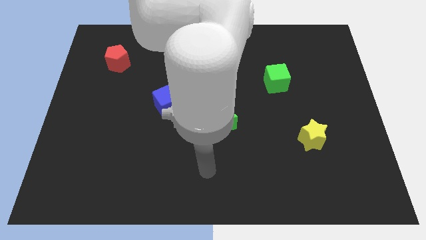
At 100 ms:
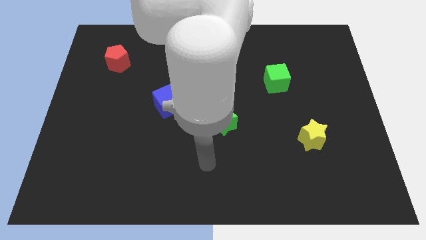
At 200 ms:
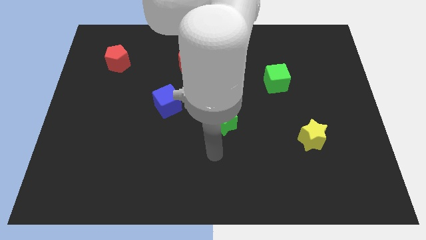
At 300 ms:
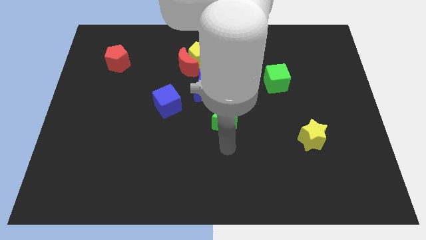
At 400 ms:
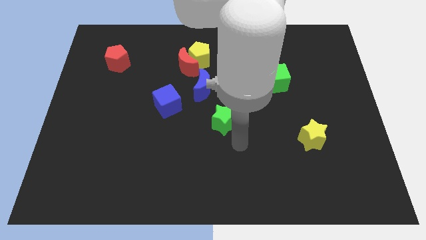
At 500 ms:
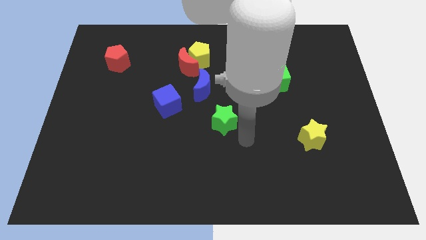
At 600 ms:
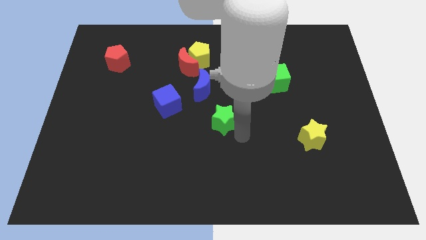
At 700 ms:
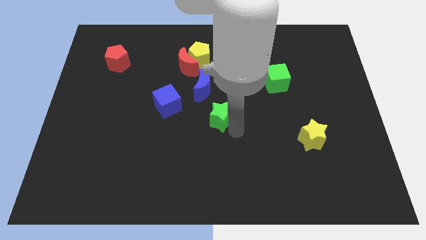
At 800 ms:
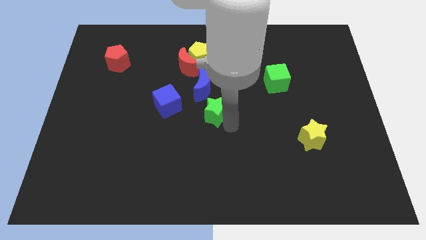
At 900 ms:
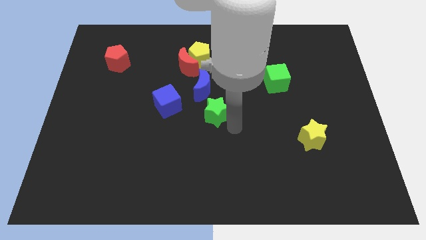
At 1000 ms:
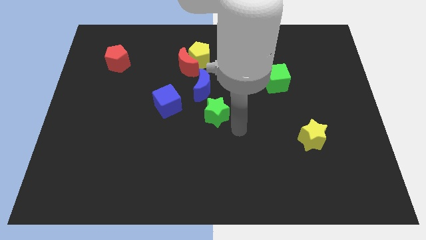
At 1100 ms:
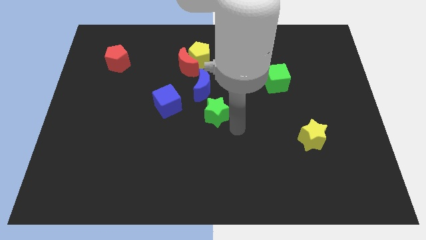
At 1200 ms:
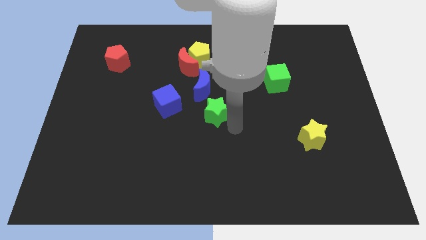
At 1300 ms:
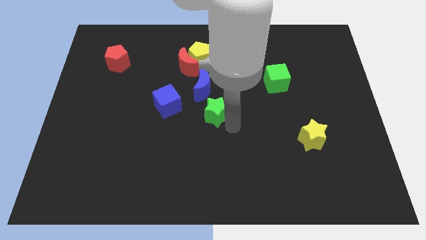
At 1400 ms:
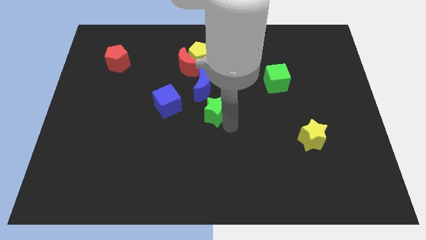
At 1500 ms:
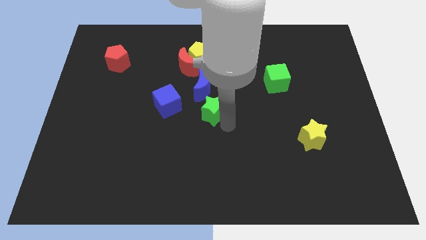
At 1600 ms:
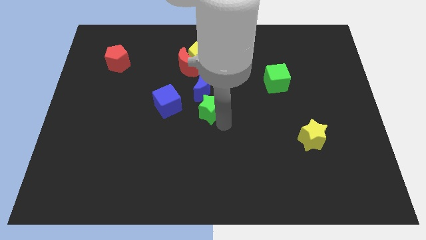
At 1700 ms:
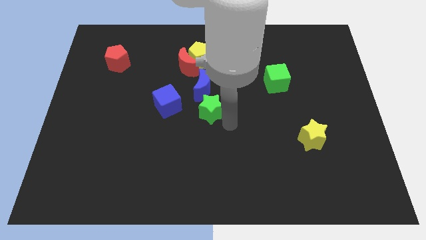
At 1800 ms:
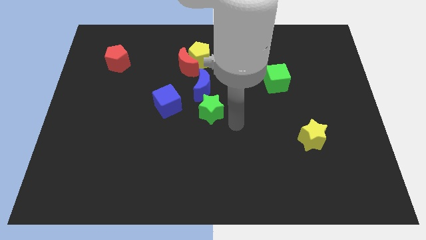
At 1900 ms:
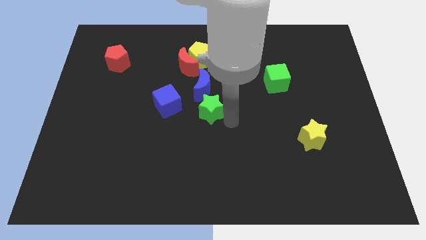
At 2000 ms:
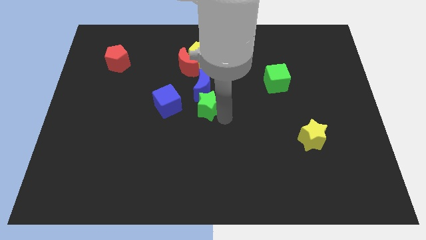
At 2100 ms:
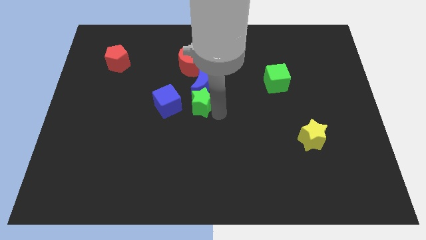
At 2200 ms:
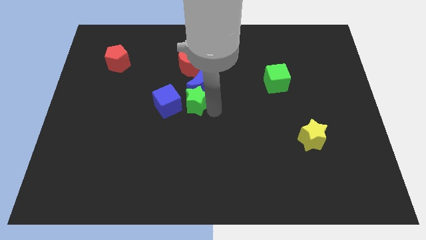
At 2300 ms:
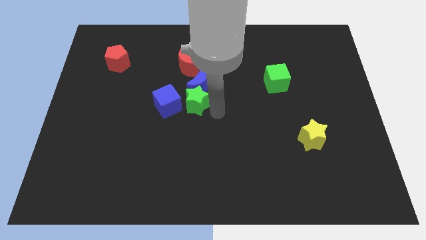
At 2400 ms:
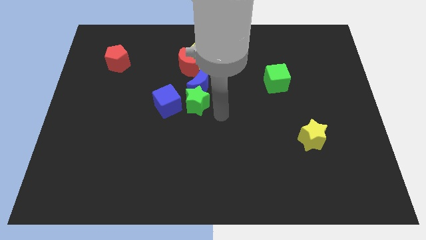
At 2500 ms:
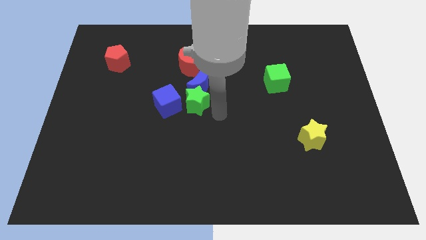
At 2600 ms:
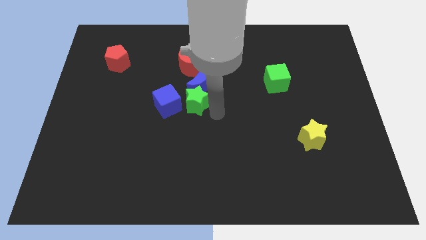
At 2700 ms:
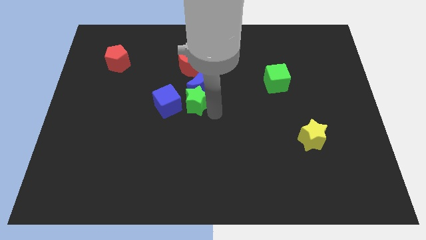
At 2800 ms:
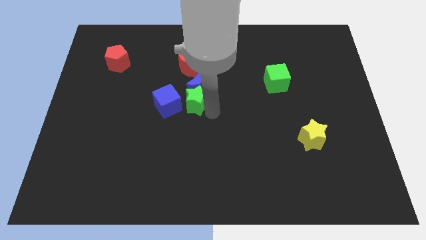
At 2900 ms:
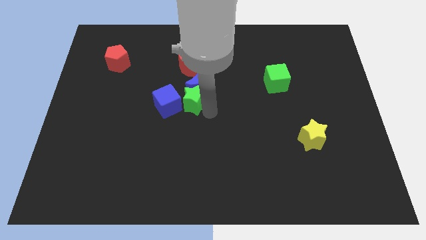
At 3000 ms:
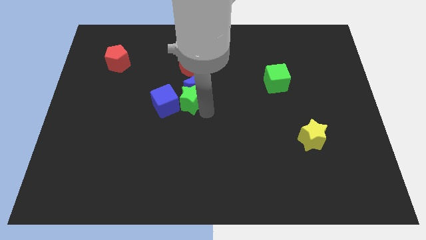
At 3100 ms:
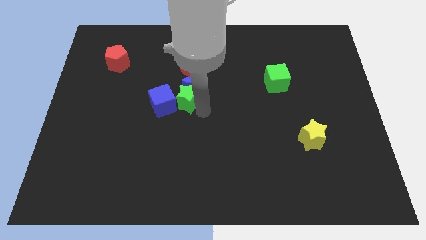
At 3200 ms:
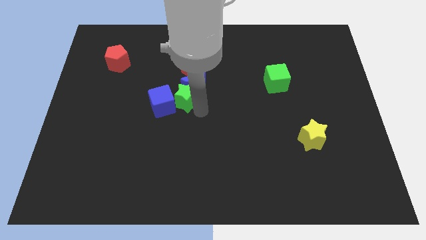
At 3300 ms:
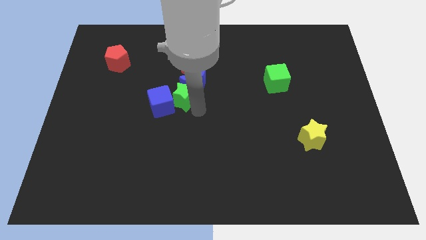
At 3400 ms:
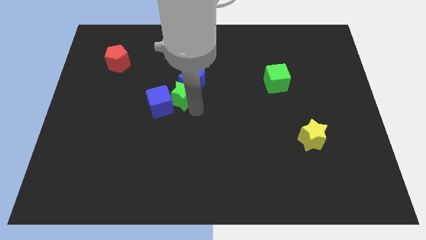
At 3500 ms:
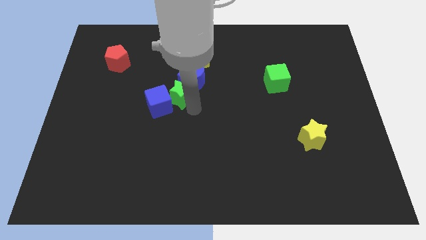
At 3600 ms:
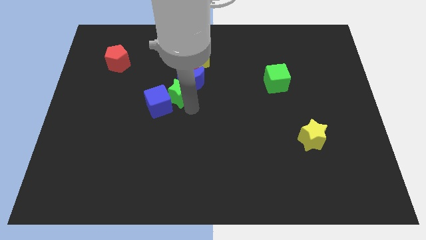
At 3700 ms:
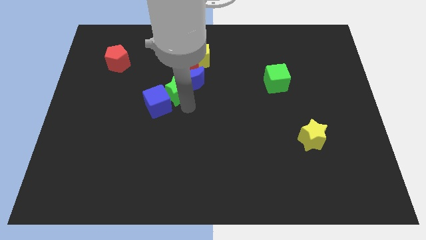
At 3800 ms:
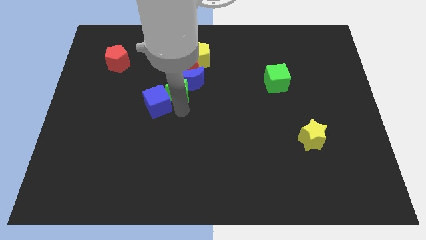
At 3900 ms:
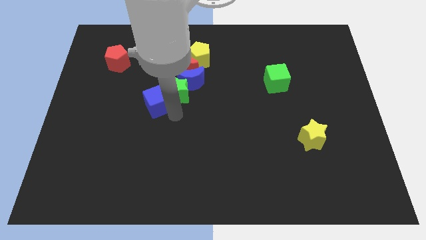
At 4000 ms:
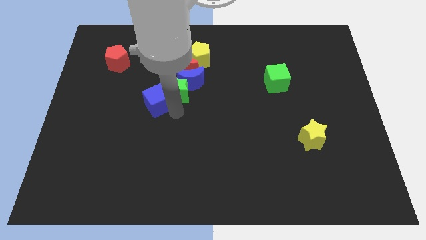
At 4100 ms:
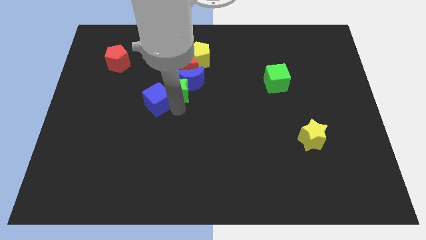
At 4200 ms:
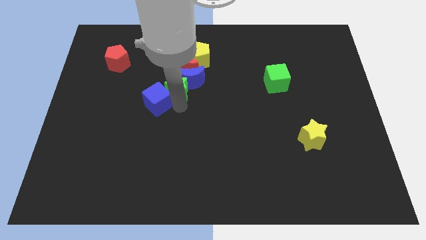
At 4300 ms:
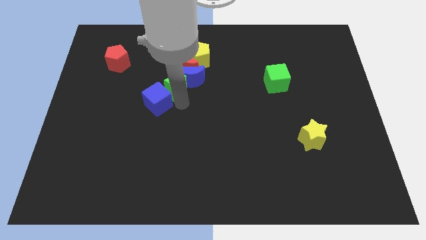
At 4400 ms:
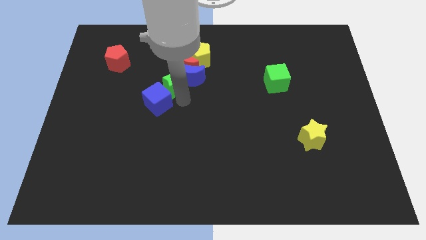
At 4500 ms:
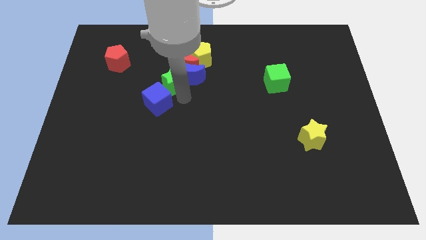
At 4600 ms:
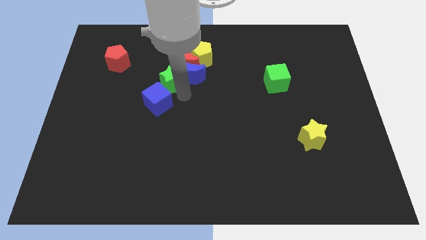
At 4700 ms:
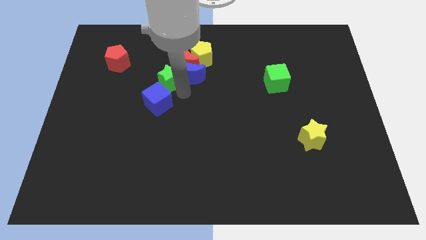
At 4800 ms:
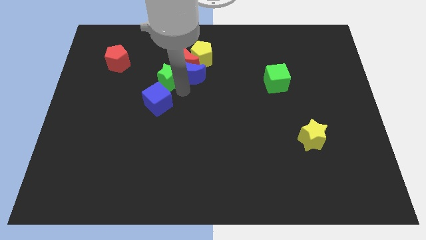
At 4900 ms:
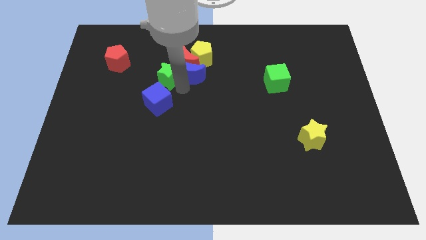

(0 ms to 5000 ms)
put the green star towards the red moon

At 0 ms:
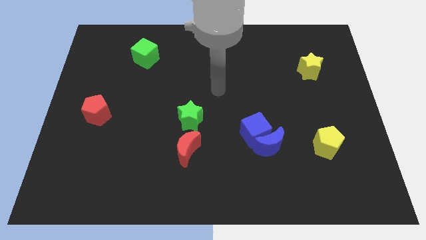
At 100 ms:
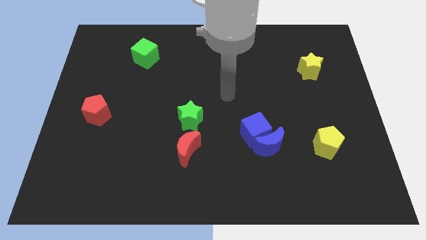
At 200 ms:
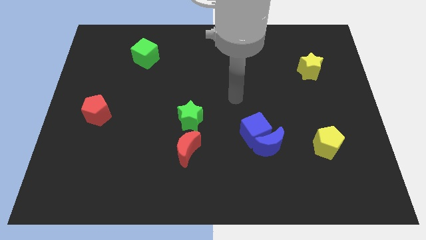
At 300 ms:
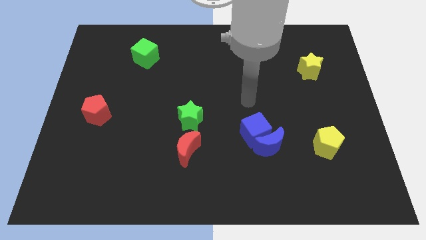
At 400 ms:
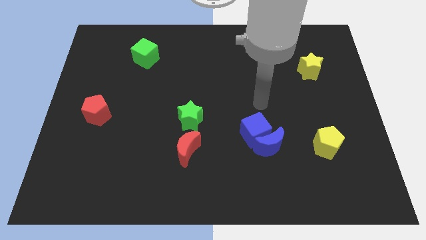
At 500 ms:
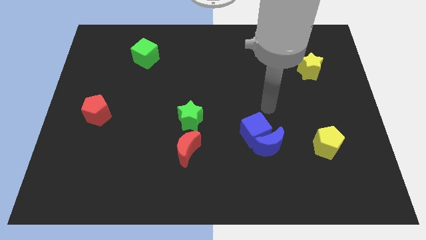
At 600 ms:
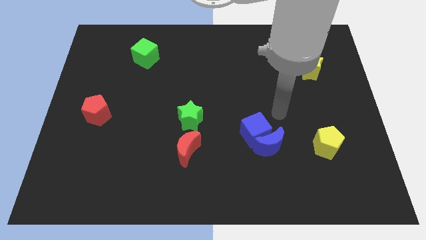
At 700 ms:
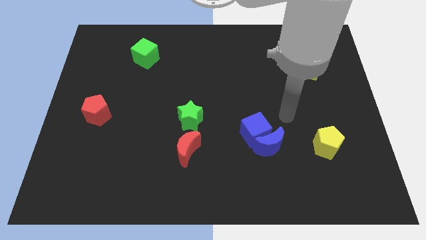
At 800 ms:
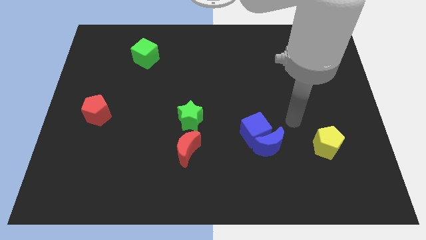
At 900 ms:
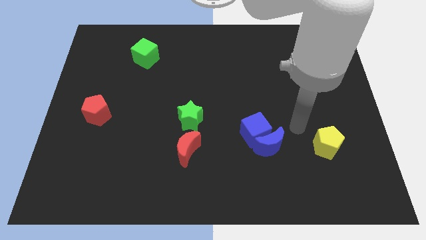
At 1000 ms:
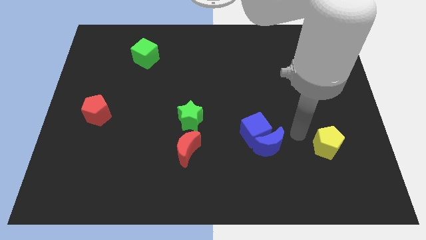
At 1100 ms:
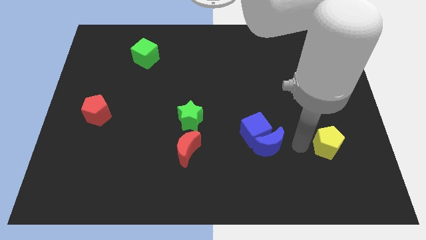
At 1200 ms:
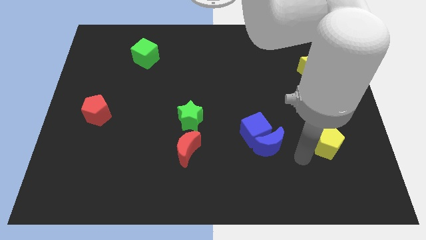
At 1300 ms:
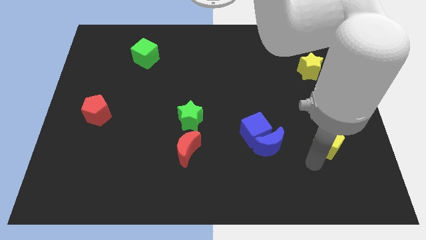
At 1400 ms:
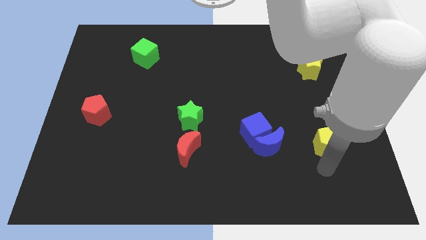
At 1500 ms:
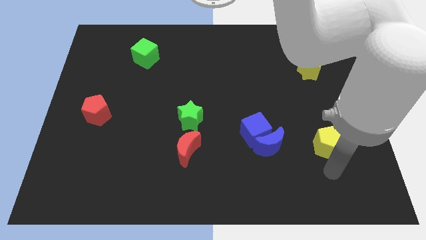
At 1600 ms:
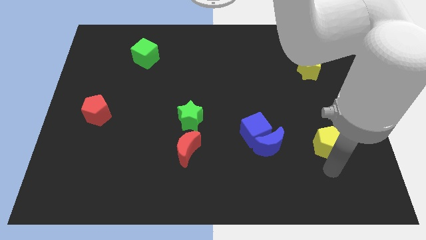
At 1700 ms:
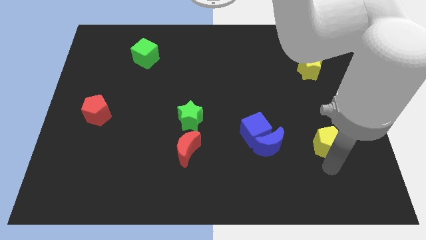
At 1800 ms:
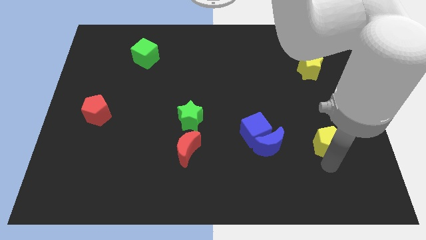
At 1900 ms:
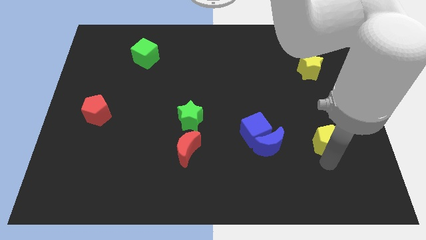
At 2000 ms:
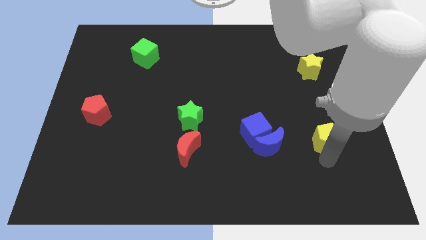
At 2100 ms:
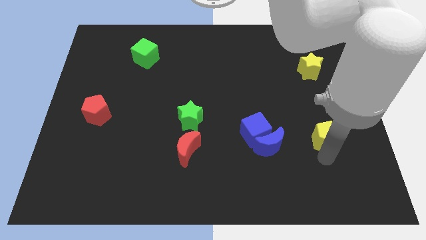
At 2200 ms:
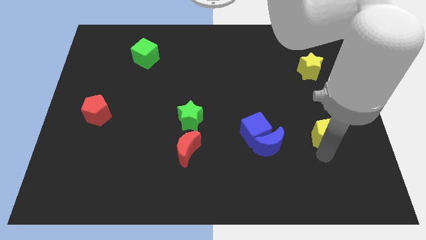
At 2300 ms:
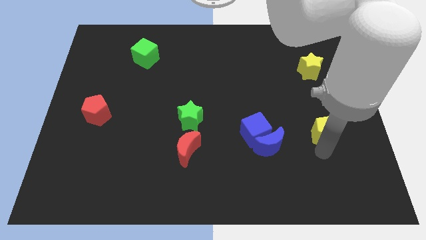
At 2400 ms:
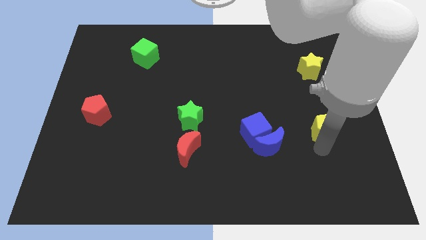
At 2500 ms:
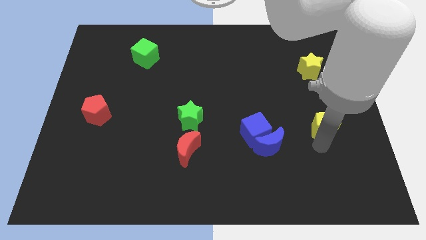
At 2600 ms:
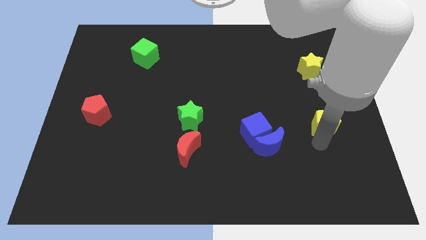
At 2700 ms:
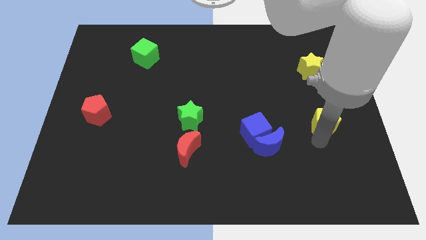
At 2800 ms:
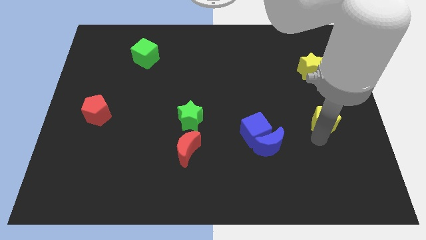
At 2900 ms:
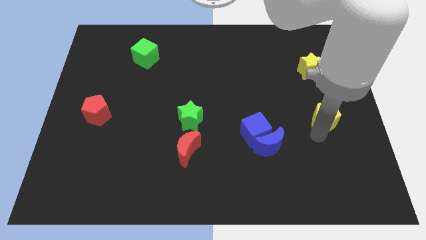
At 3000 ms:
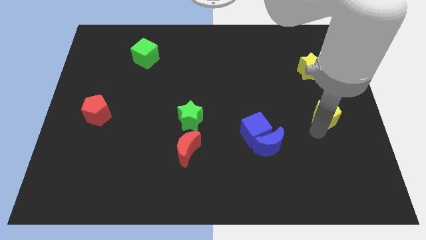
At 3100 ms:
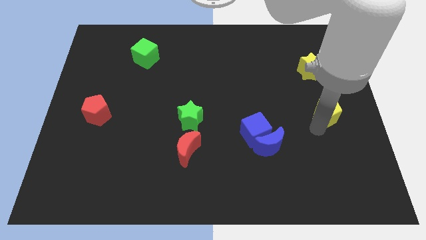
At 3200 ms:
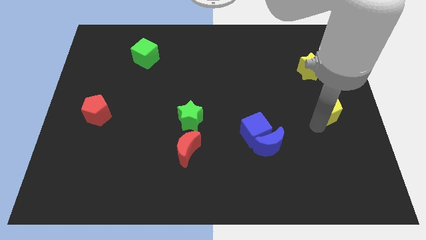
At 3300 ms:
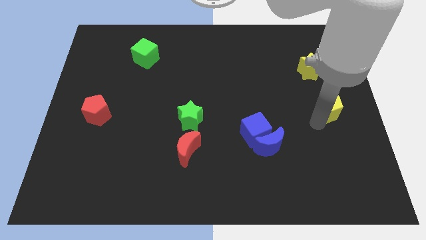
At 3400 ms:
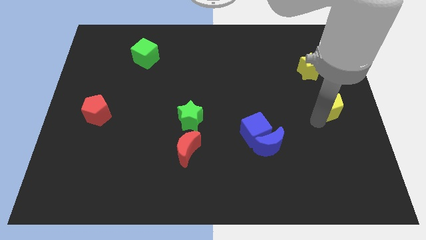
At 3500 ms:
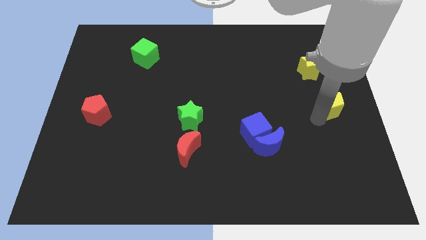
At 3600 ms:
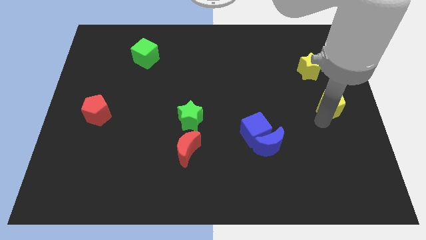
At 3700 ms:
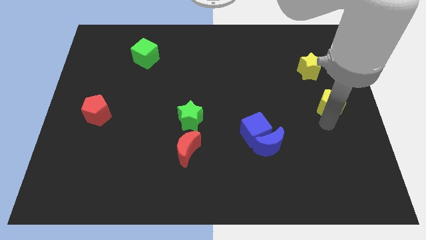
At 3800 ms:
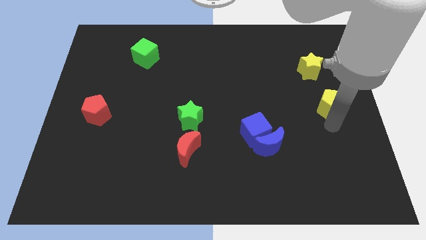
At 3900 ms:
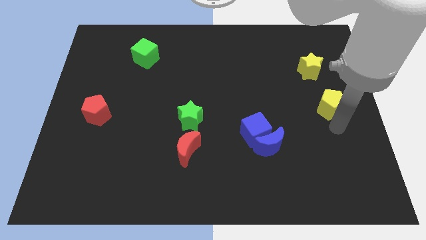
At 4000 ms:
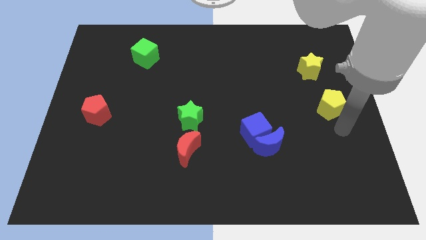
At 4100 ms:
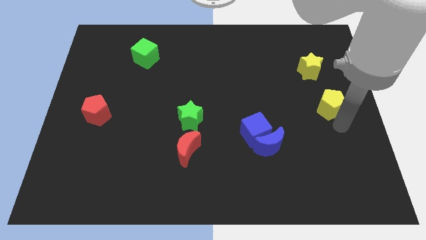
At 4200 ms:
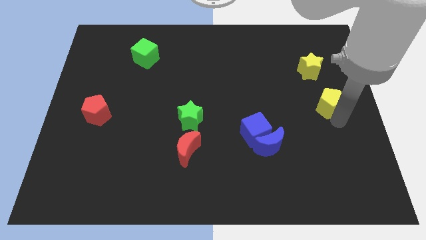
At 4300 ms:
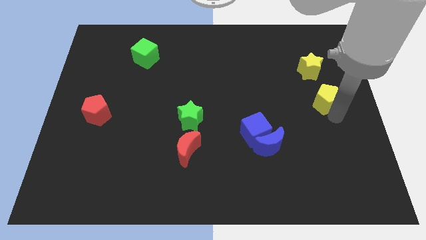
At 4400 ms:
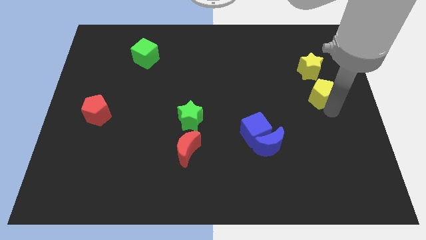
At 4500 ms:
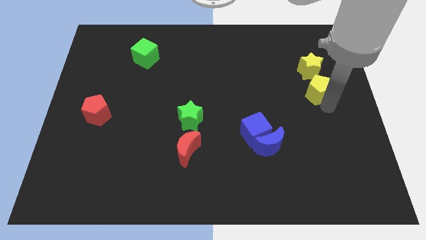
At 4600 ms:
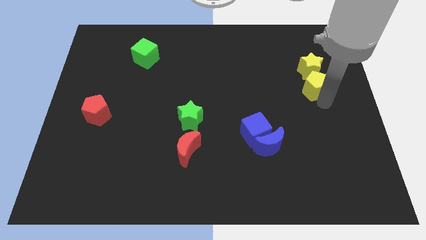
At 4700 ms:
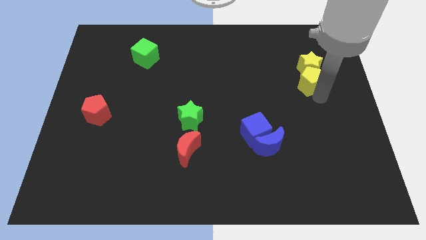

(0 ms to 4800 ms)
put the yellow pentagon towards the yellow star
